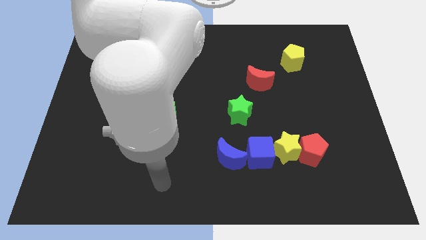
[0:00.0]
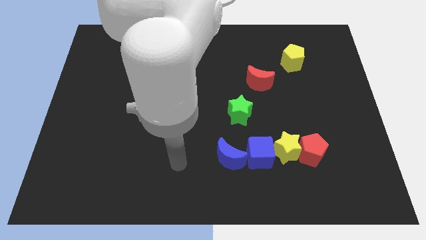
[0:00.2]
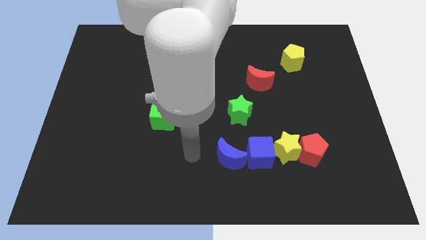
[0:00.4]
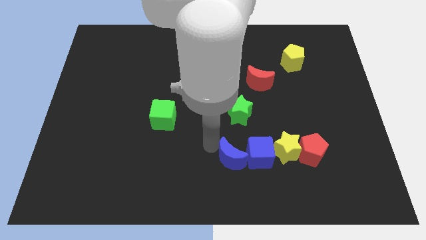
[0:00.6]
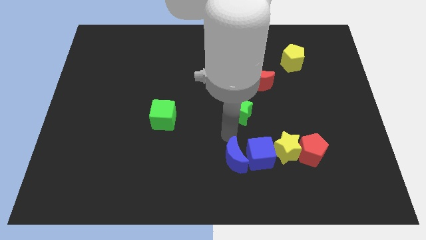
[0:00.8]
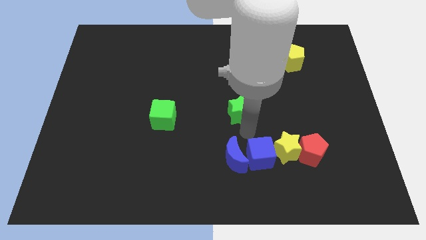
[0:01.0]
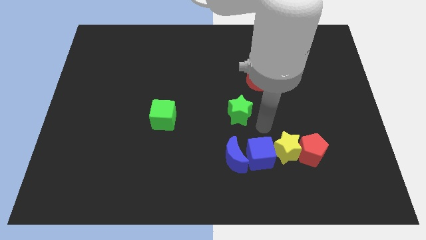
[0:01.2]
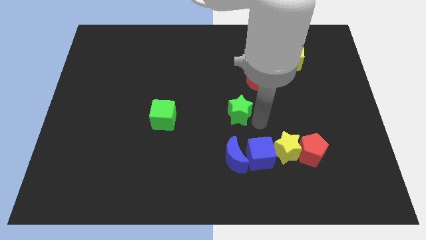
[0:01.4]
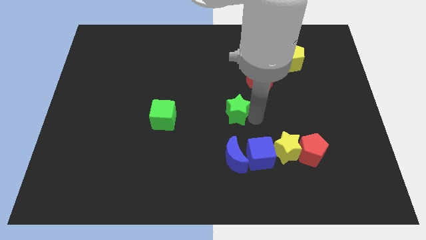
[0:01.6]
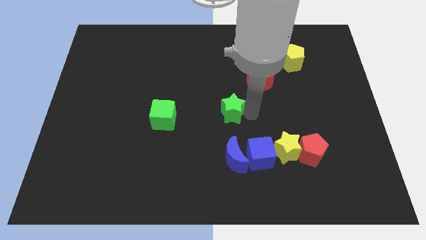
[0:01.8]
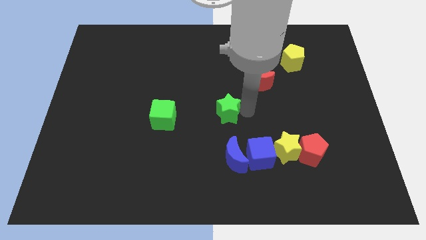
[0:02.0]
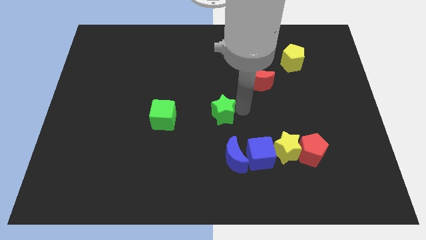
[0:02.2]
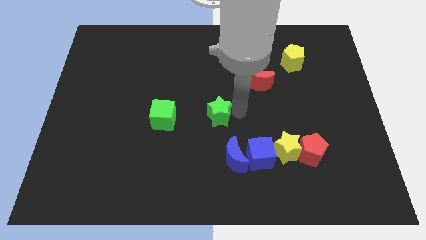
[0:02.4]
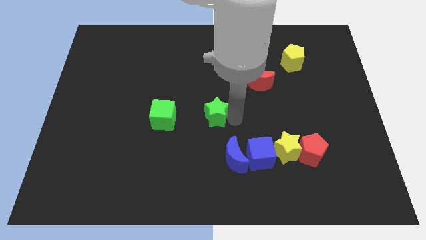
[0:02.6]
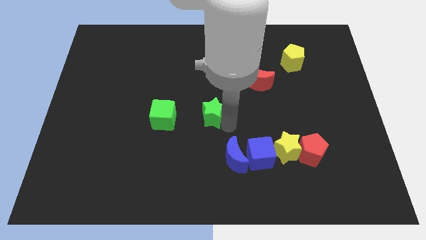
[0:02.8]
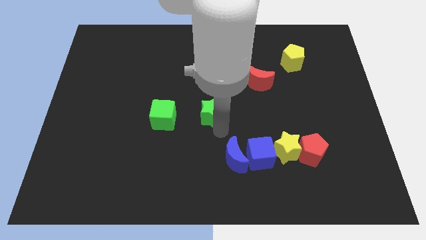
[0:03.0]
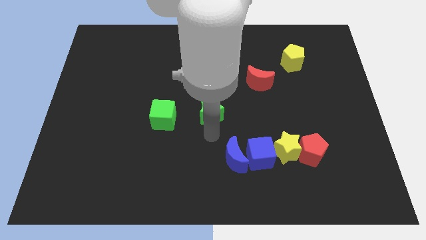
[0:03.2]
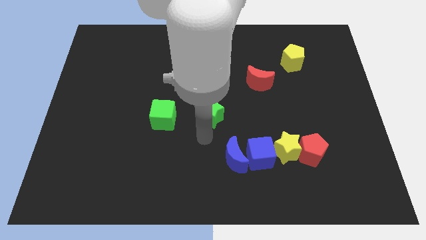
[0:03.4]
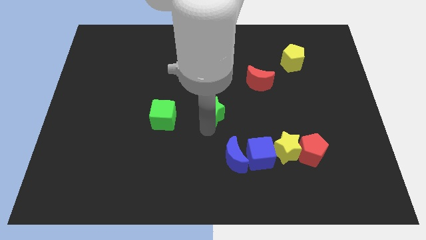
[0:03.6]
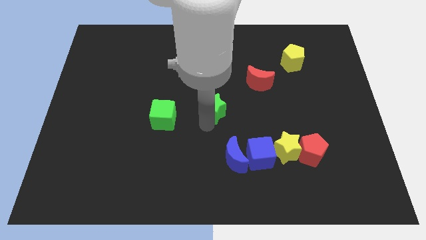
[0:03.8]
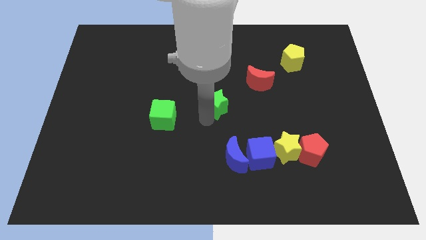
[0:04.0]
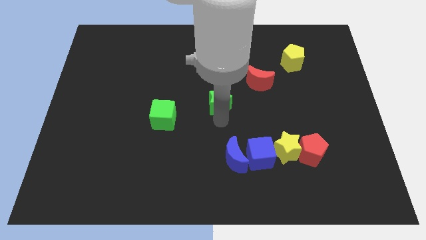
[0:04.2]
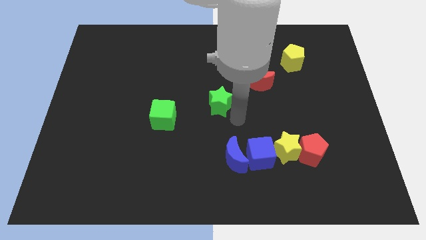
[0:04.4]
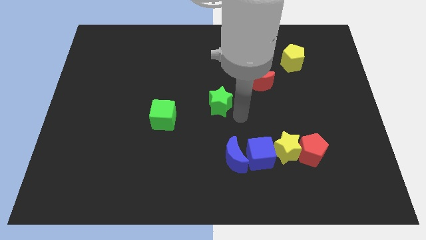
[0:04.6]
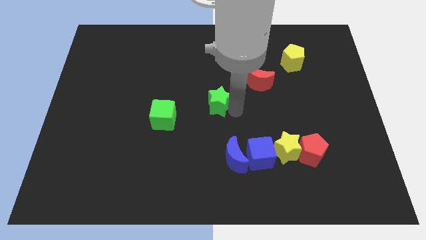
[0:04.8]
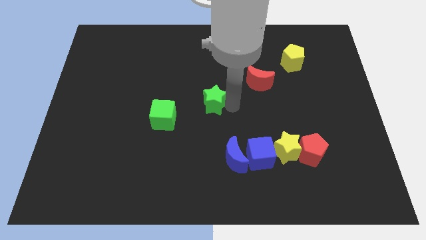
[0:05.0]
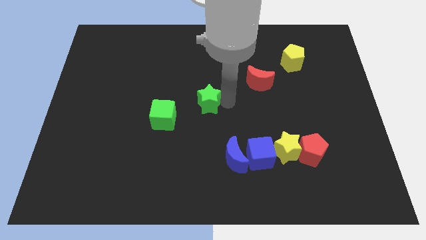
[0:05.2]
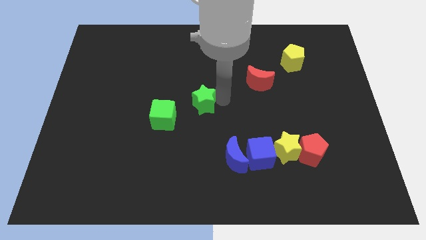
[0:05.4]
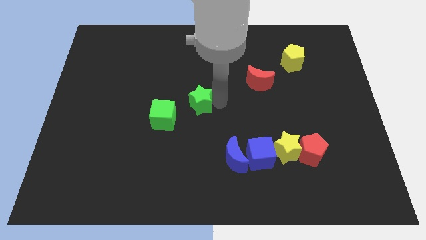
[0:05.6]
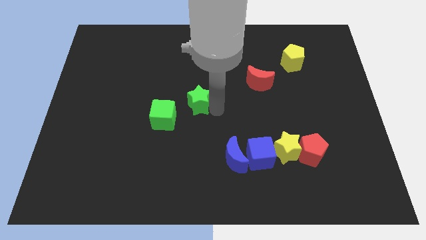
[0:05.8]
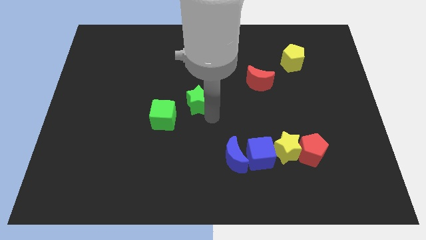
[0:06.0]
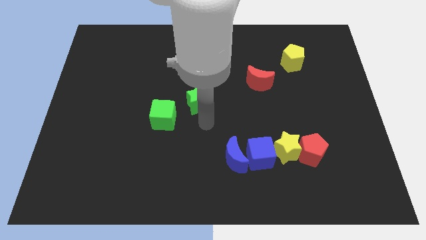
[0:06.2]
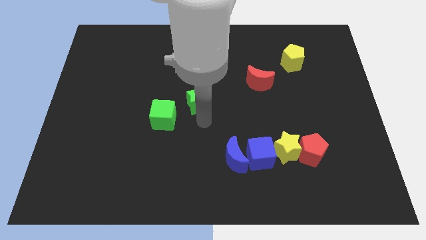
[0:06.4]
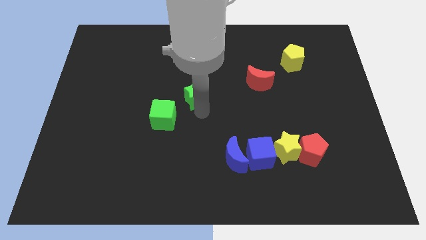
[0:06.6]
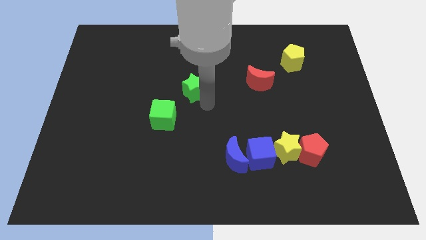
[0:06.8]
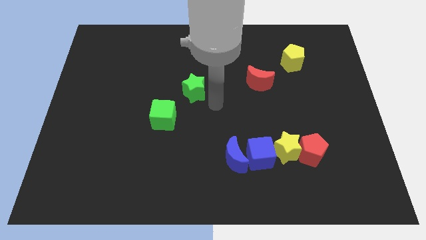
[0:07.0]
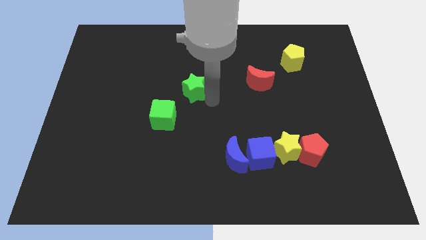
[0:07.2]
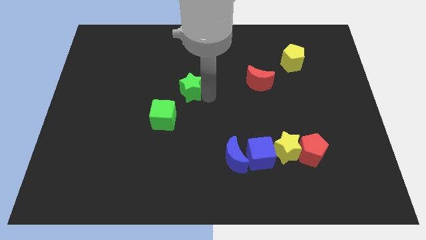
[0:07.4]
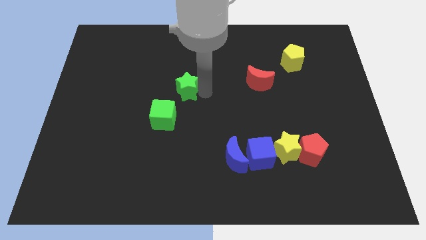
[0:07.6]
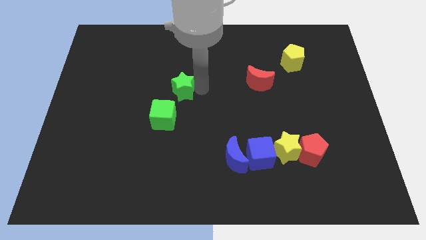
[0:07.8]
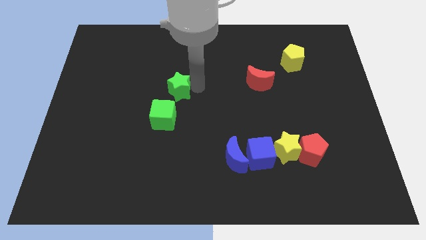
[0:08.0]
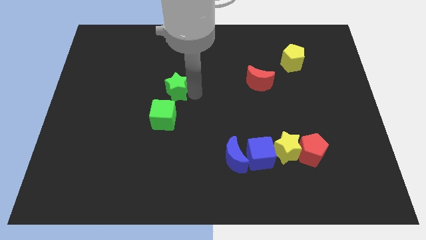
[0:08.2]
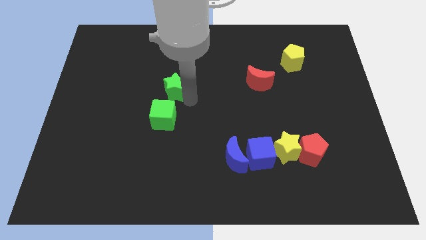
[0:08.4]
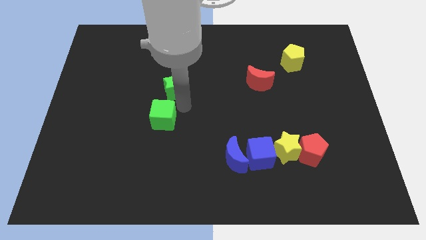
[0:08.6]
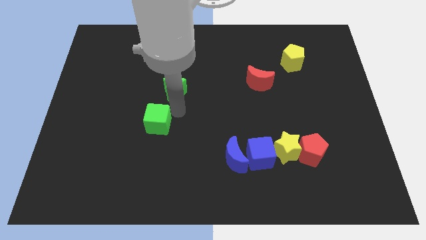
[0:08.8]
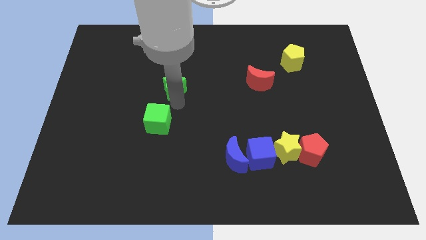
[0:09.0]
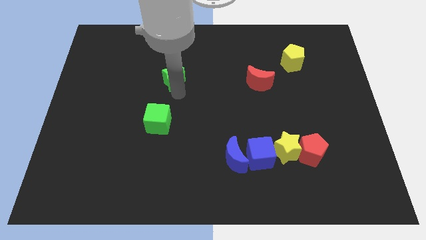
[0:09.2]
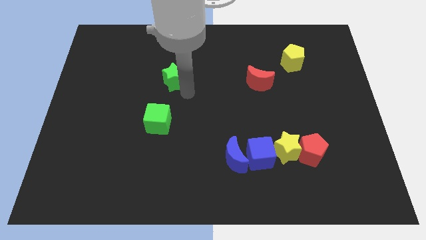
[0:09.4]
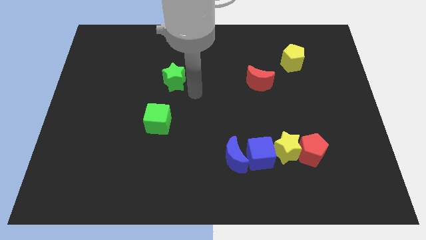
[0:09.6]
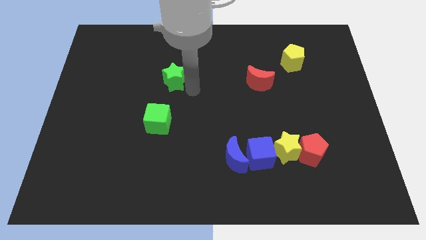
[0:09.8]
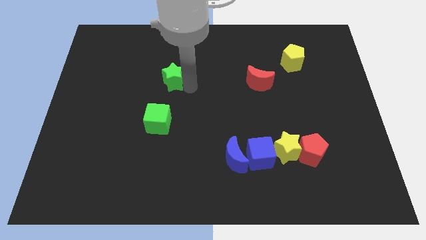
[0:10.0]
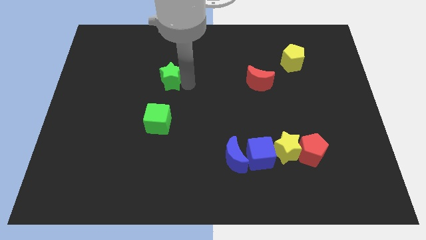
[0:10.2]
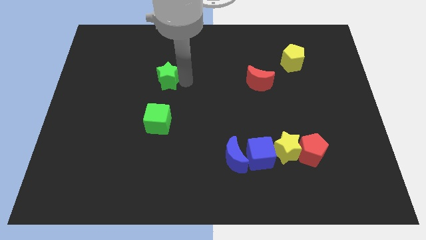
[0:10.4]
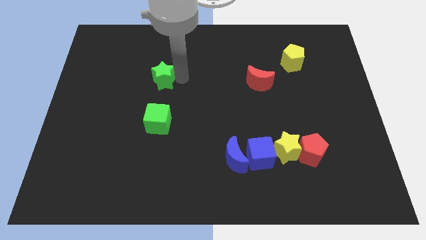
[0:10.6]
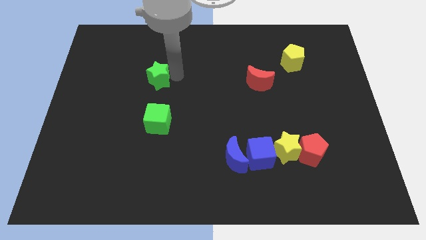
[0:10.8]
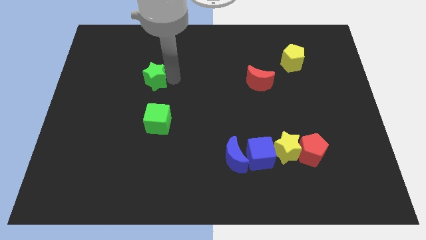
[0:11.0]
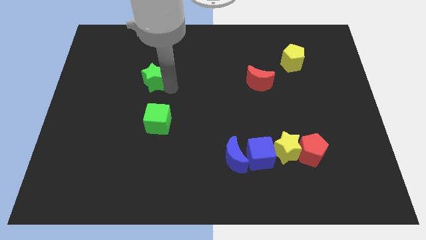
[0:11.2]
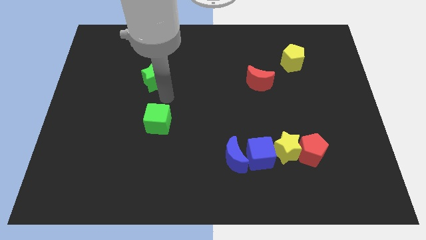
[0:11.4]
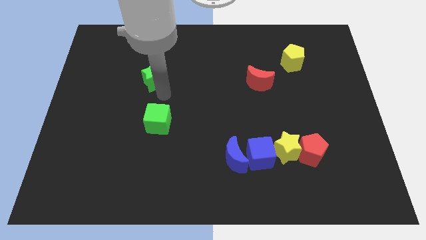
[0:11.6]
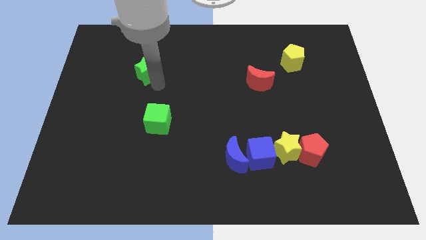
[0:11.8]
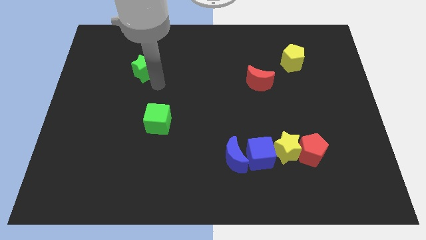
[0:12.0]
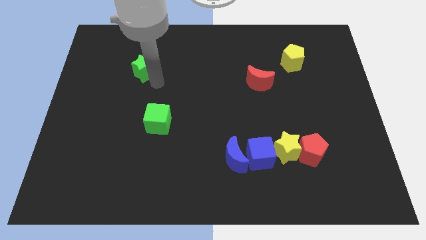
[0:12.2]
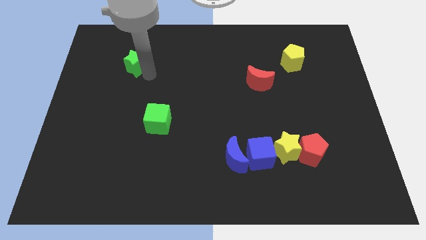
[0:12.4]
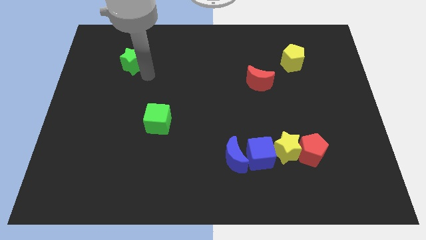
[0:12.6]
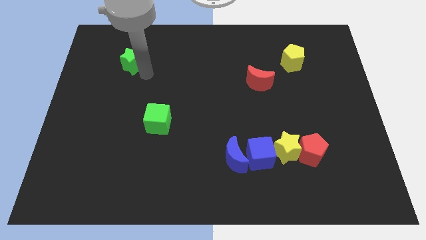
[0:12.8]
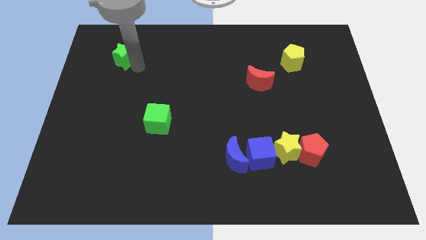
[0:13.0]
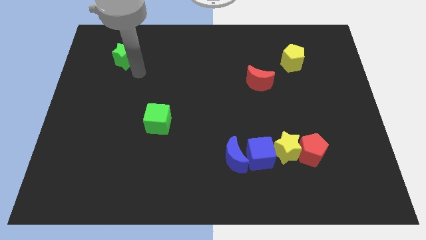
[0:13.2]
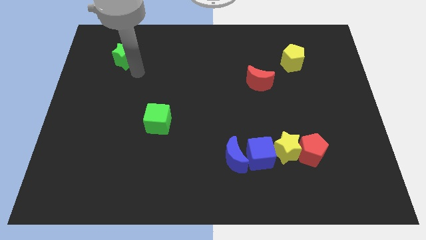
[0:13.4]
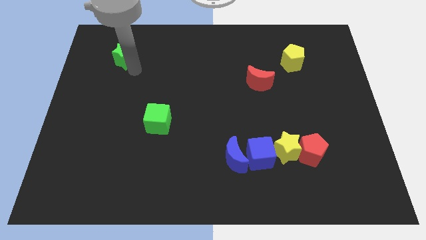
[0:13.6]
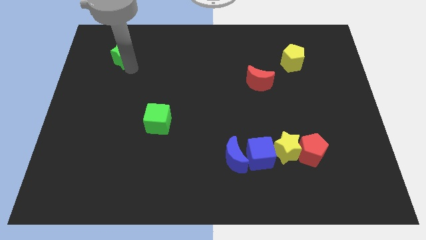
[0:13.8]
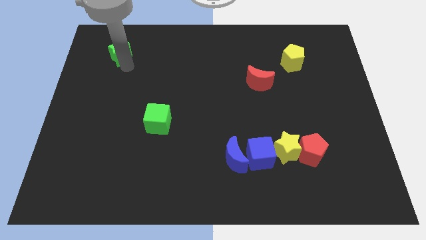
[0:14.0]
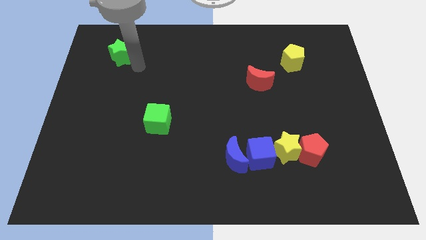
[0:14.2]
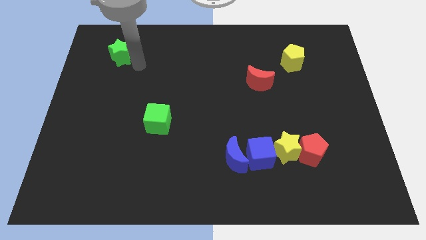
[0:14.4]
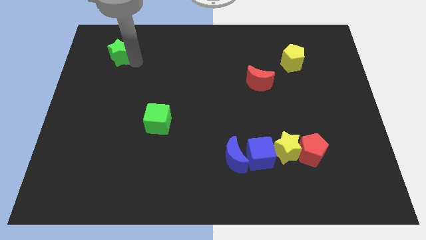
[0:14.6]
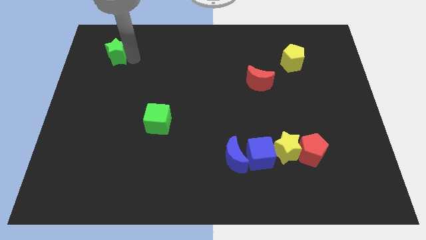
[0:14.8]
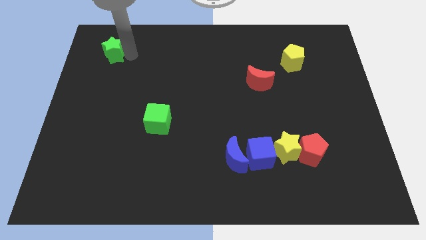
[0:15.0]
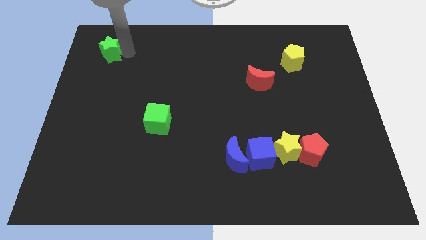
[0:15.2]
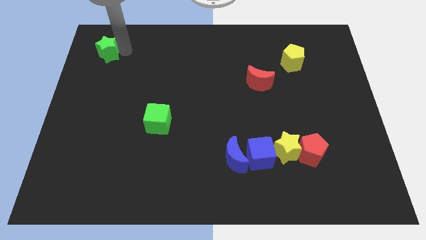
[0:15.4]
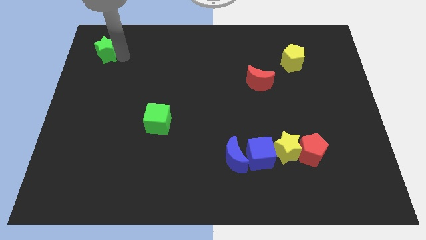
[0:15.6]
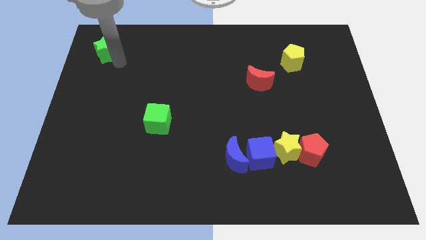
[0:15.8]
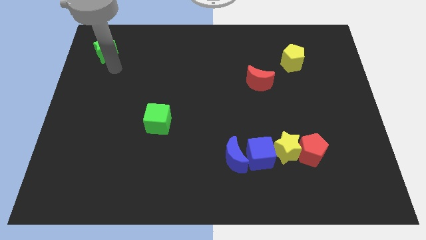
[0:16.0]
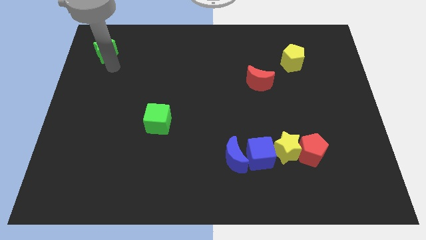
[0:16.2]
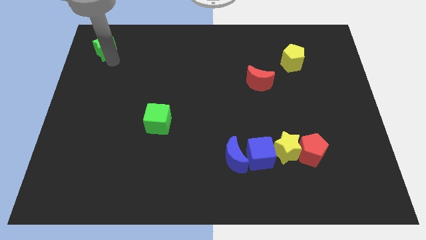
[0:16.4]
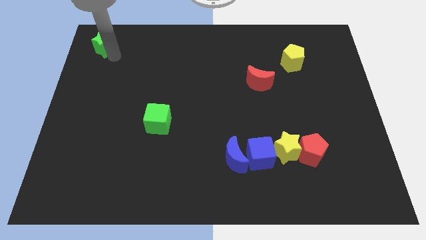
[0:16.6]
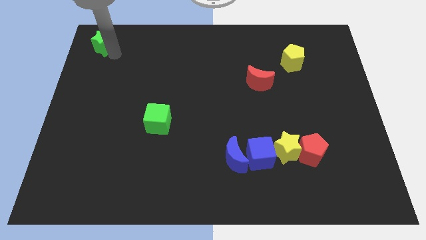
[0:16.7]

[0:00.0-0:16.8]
move the green star to the top left of the board
